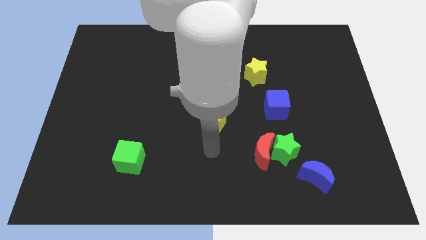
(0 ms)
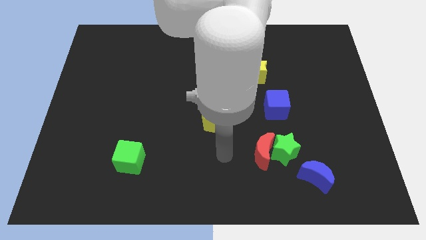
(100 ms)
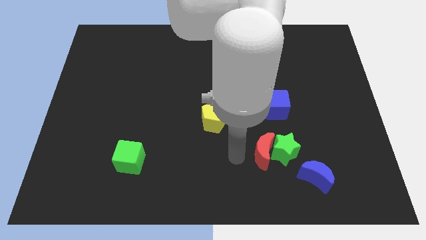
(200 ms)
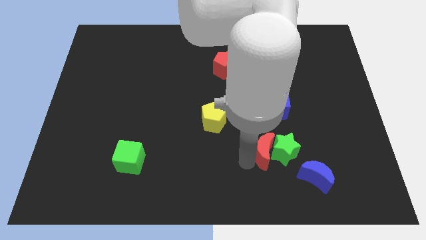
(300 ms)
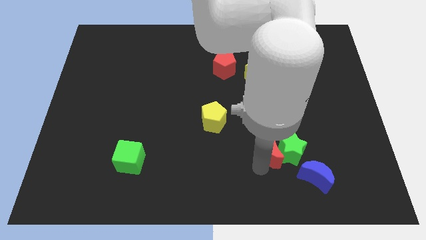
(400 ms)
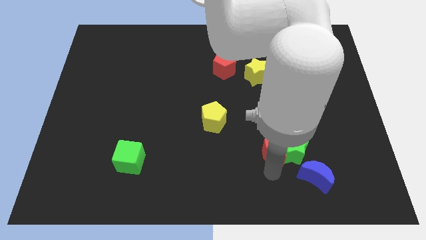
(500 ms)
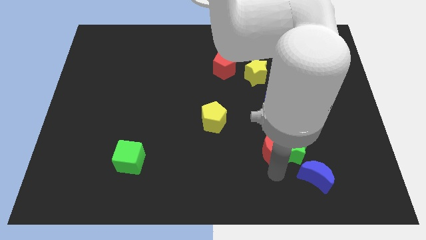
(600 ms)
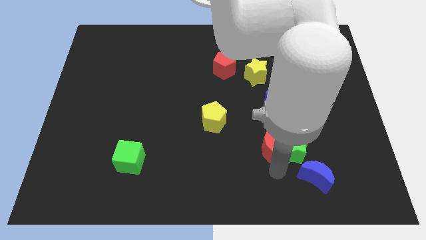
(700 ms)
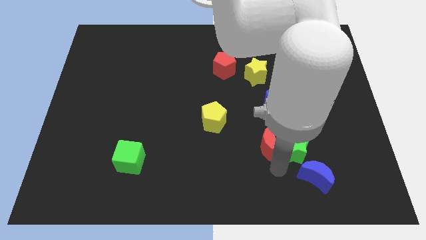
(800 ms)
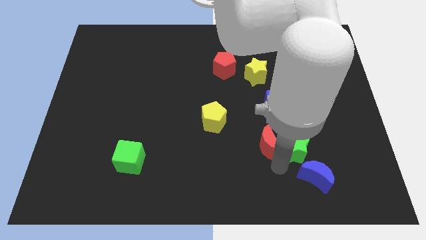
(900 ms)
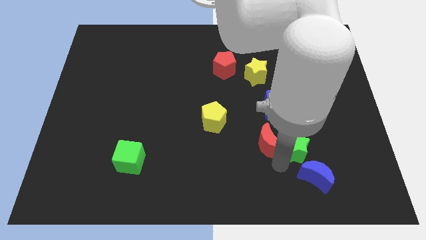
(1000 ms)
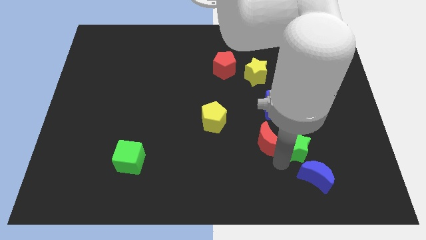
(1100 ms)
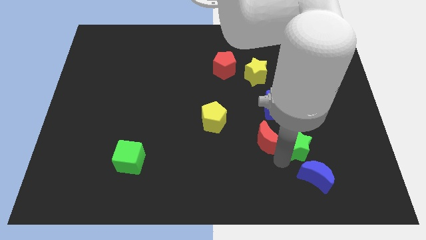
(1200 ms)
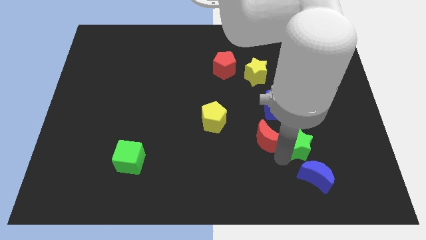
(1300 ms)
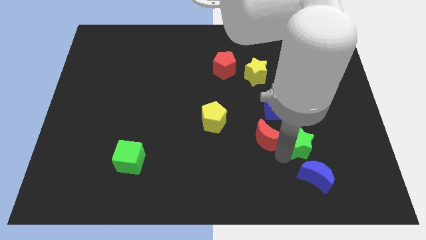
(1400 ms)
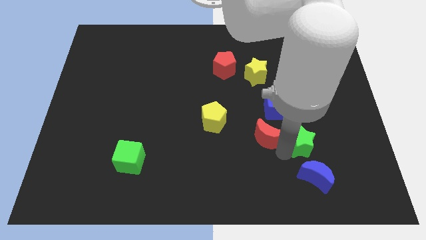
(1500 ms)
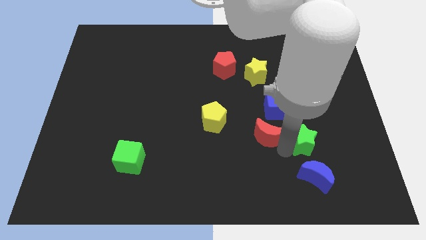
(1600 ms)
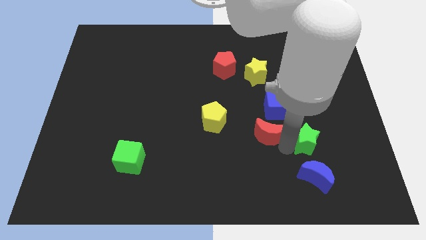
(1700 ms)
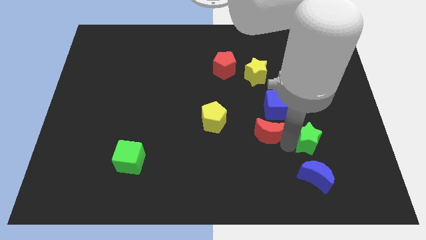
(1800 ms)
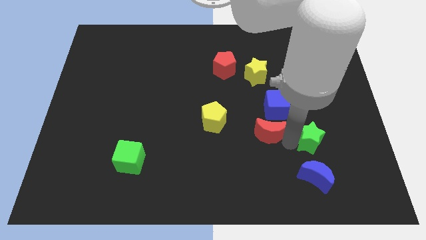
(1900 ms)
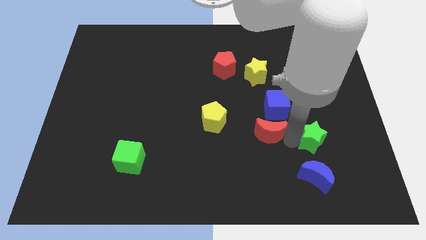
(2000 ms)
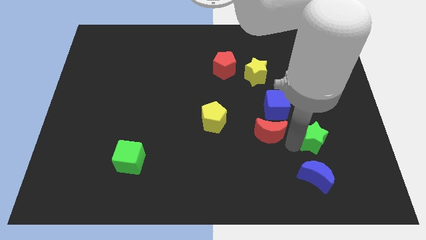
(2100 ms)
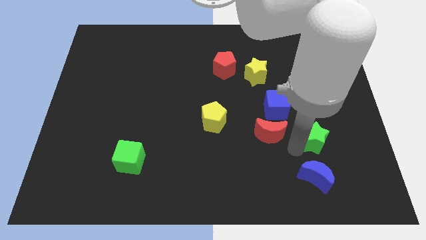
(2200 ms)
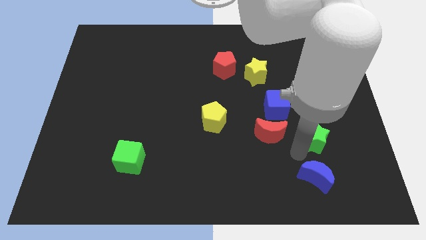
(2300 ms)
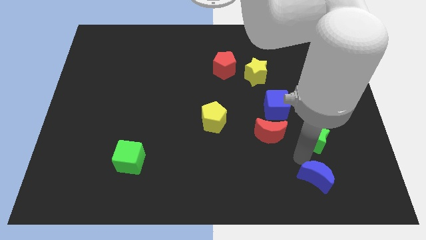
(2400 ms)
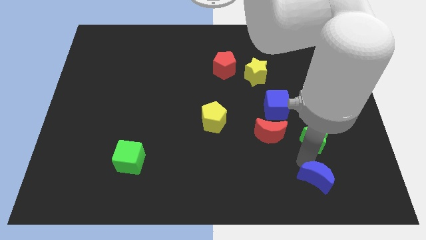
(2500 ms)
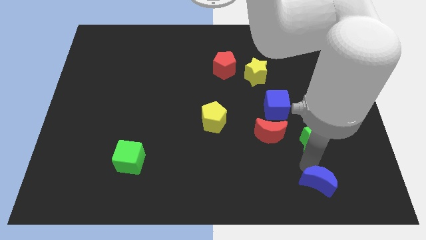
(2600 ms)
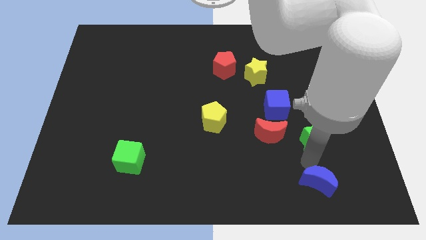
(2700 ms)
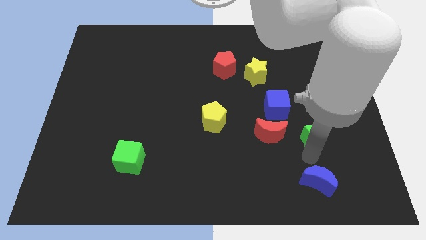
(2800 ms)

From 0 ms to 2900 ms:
move the green star slightly up and to the right diagonally

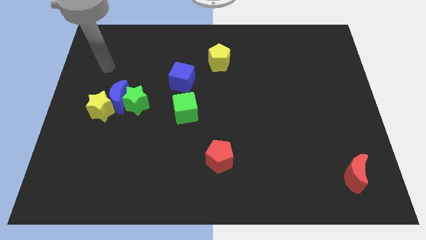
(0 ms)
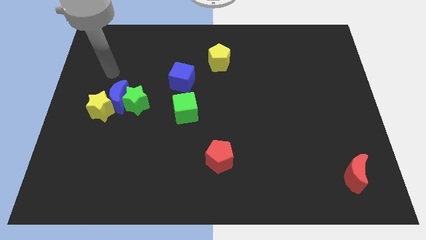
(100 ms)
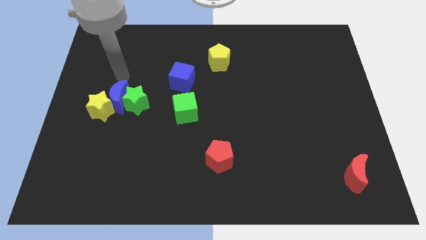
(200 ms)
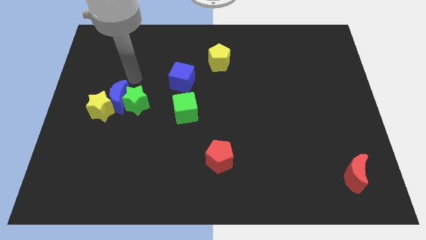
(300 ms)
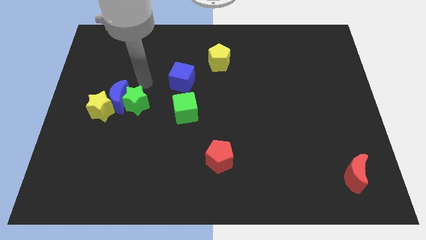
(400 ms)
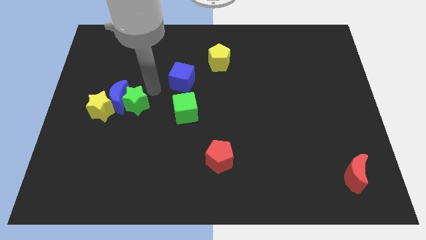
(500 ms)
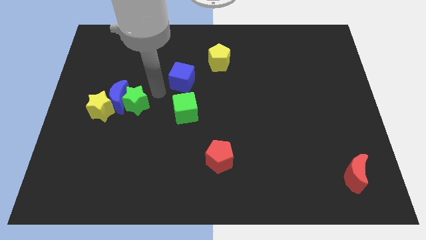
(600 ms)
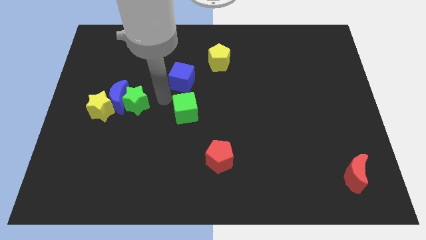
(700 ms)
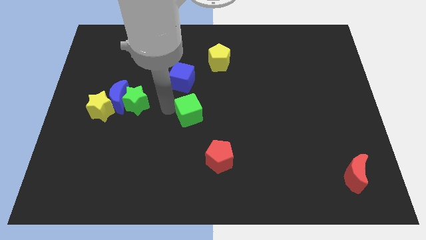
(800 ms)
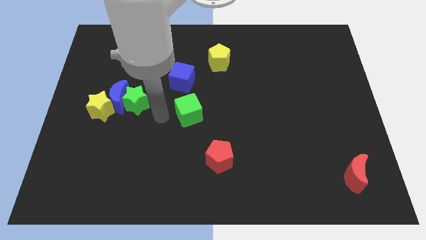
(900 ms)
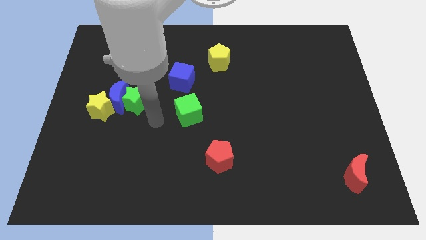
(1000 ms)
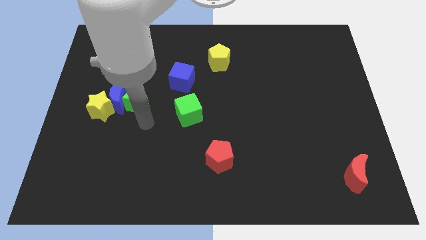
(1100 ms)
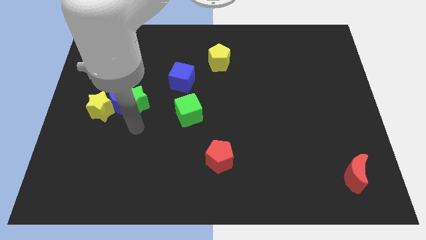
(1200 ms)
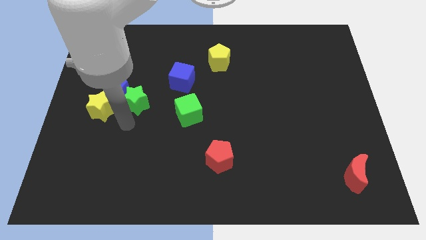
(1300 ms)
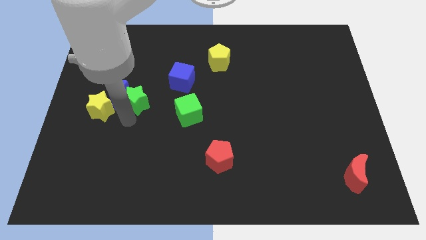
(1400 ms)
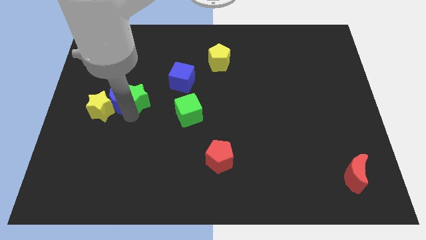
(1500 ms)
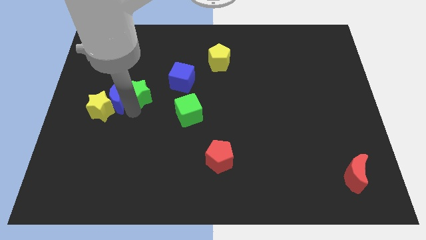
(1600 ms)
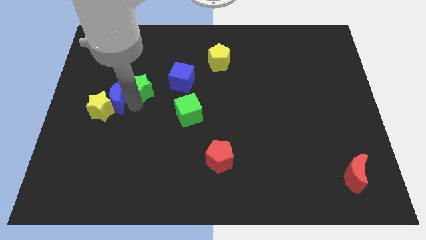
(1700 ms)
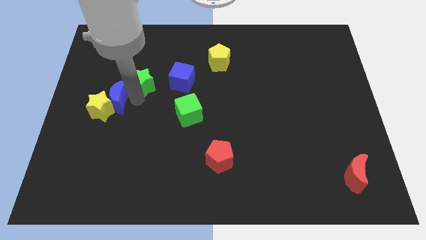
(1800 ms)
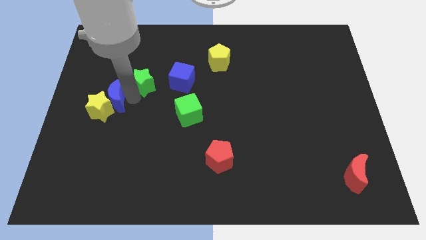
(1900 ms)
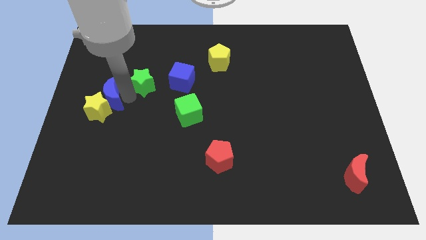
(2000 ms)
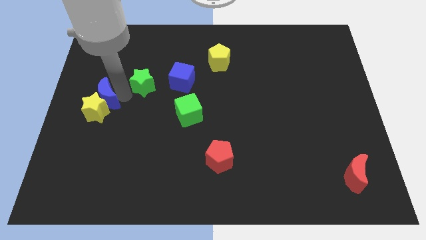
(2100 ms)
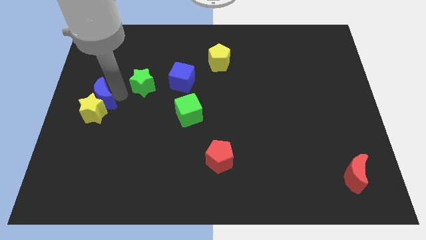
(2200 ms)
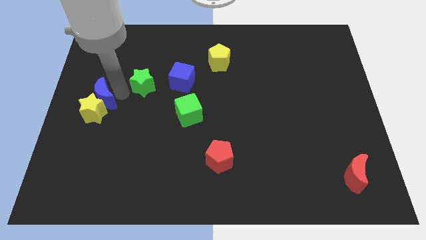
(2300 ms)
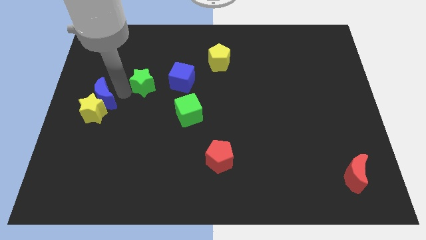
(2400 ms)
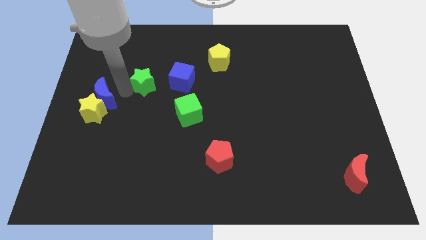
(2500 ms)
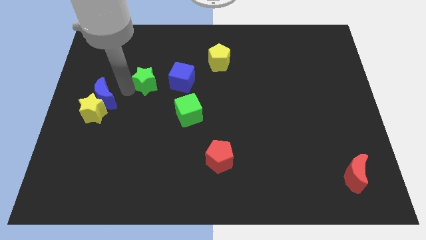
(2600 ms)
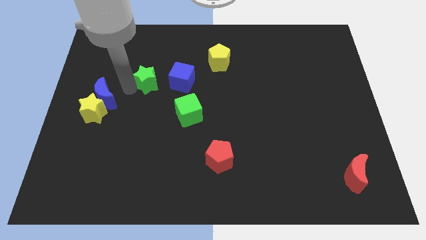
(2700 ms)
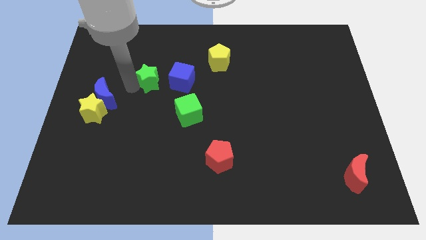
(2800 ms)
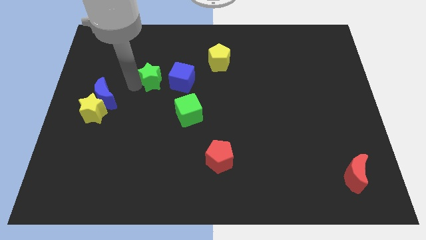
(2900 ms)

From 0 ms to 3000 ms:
slightly move the green star diagonally upwards and to the right

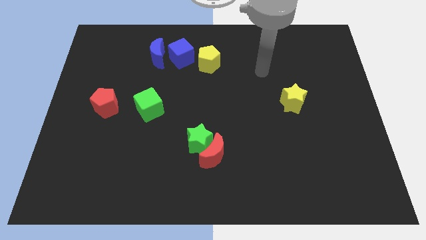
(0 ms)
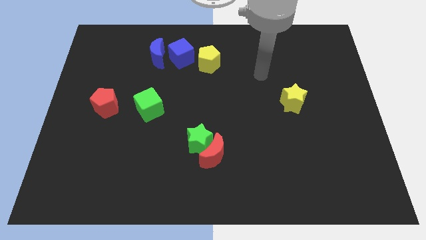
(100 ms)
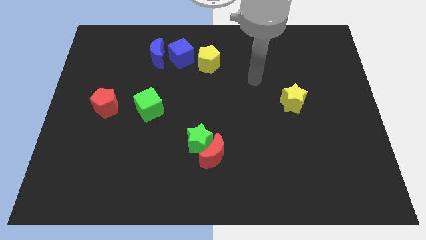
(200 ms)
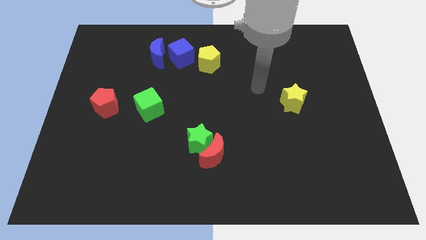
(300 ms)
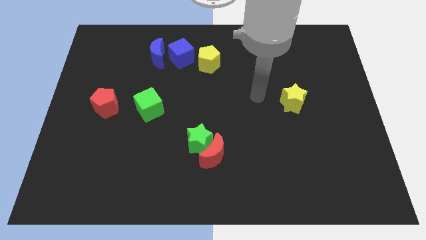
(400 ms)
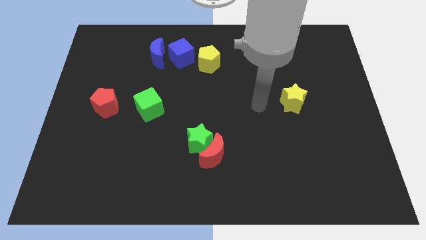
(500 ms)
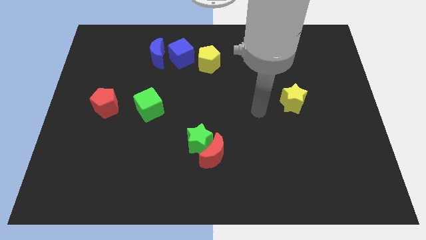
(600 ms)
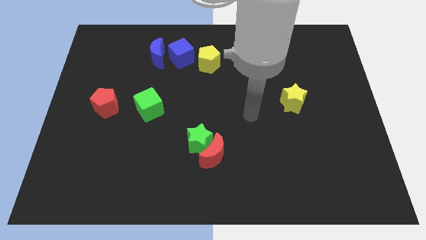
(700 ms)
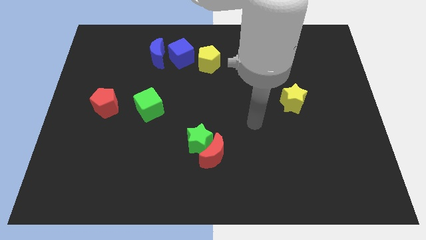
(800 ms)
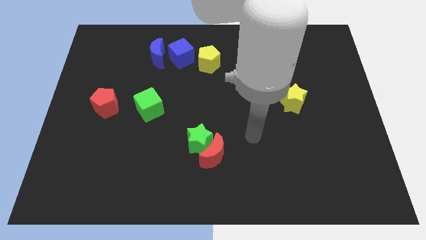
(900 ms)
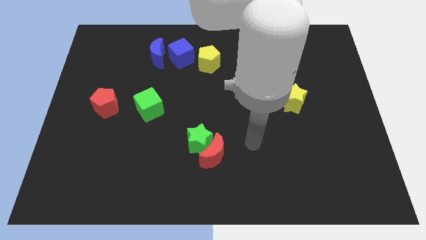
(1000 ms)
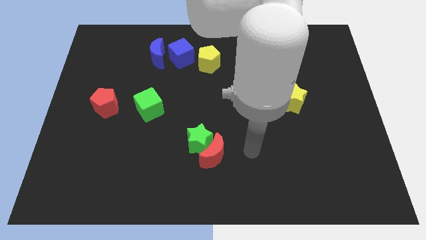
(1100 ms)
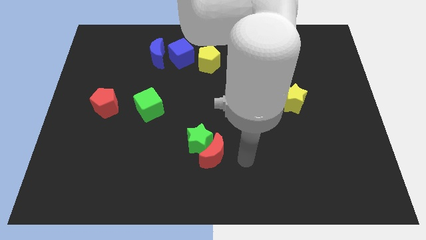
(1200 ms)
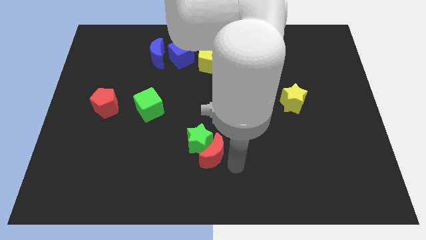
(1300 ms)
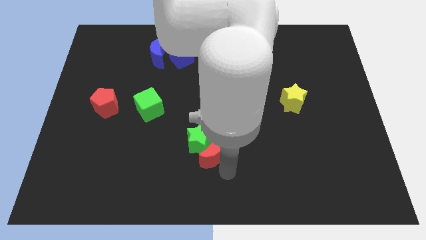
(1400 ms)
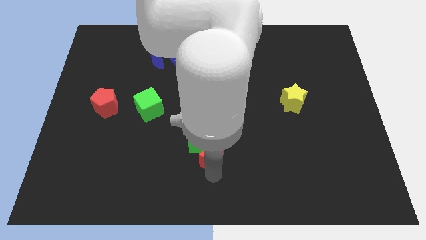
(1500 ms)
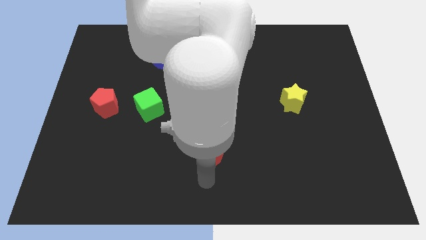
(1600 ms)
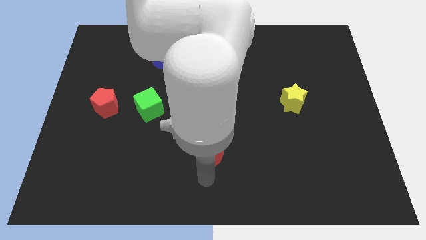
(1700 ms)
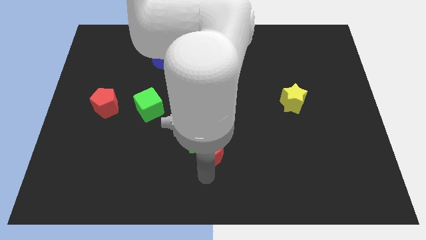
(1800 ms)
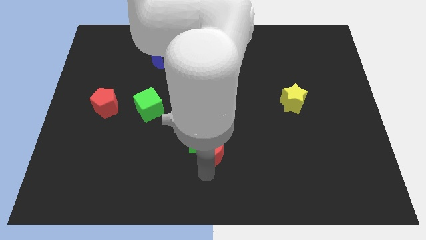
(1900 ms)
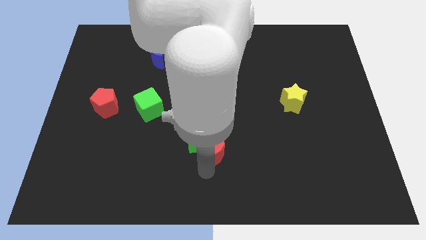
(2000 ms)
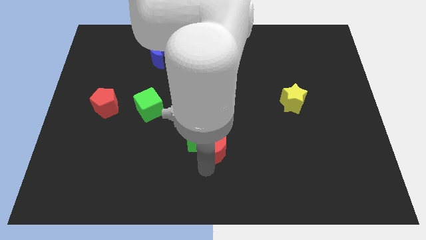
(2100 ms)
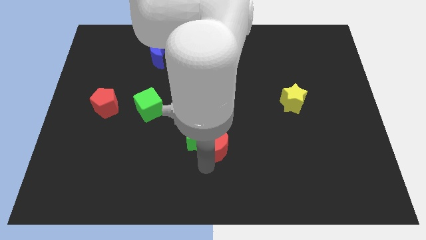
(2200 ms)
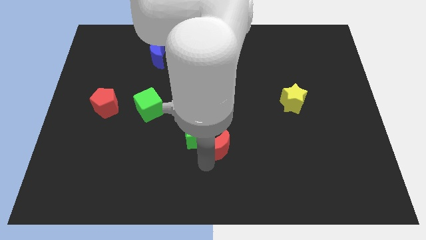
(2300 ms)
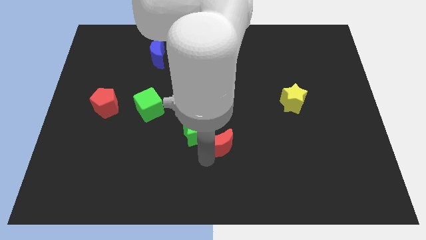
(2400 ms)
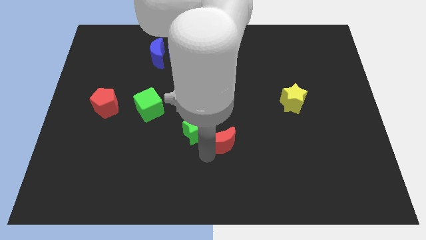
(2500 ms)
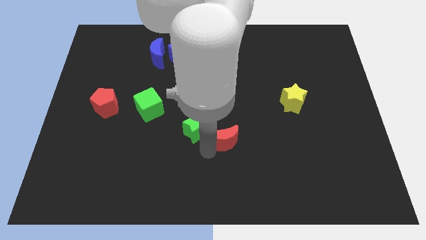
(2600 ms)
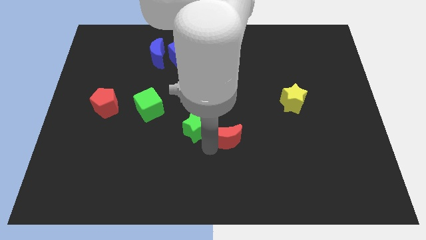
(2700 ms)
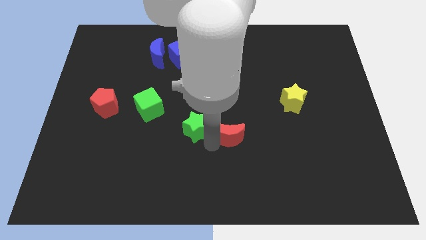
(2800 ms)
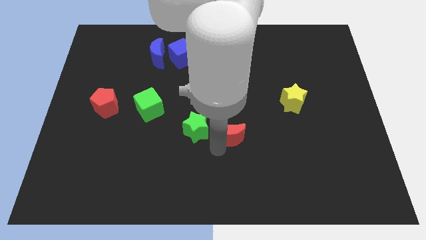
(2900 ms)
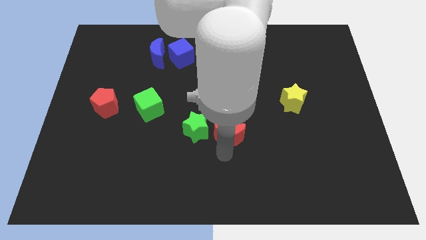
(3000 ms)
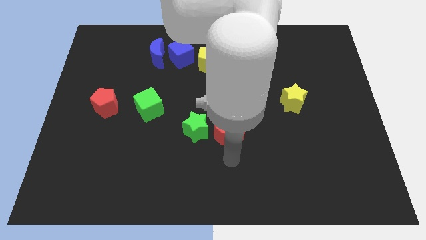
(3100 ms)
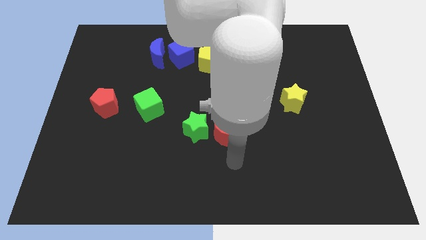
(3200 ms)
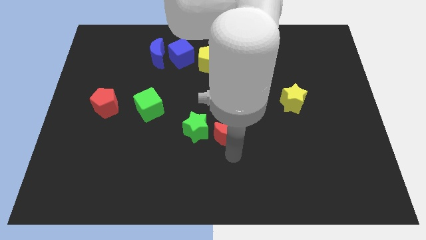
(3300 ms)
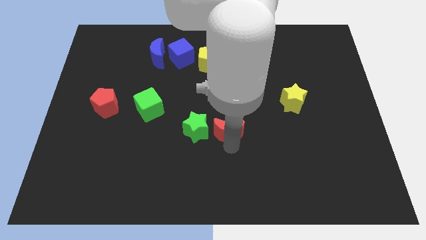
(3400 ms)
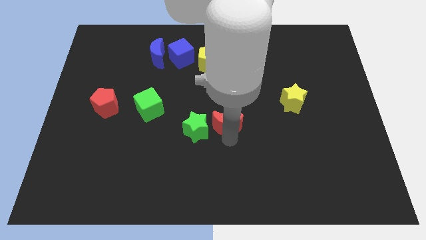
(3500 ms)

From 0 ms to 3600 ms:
move the red moon upwards a little bit
